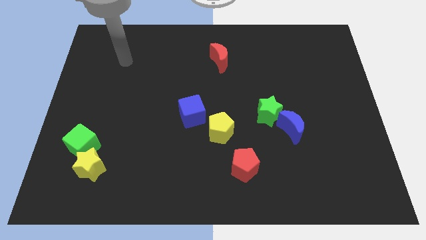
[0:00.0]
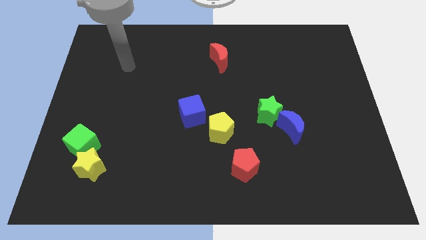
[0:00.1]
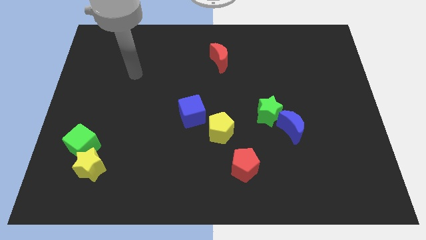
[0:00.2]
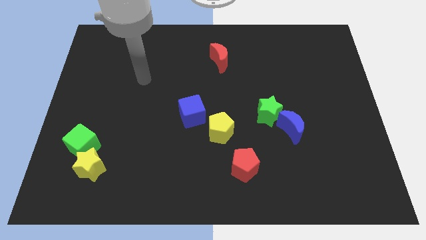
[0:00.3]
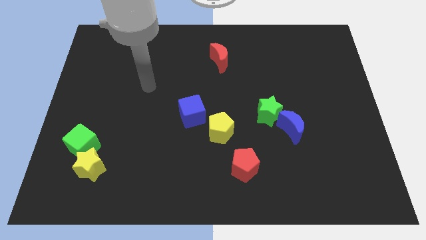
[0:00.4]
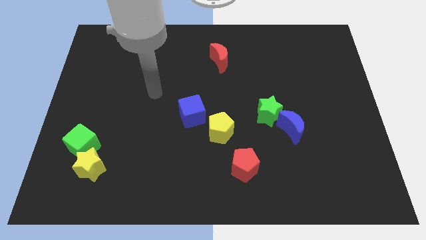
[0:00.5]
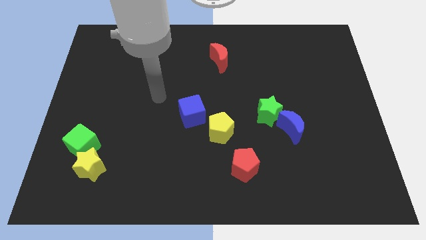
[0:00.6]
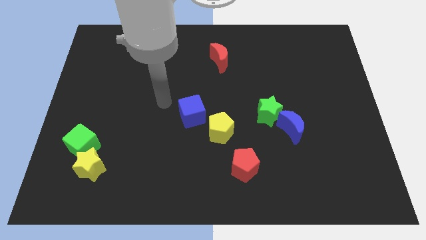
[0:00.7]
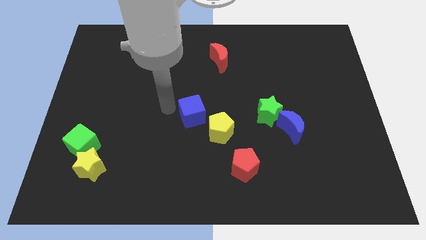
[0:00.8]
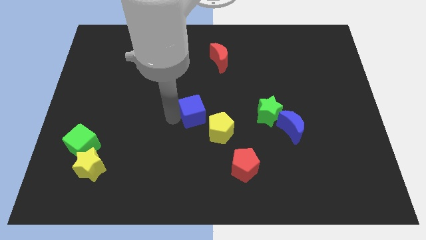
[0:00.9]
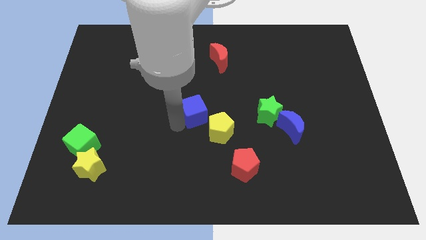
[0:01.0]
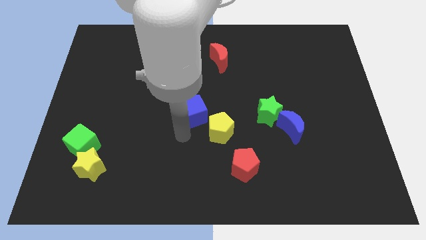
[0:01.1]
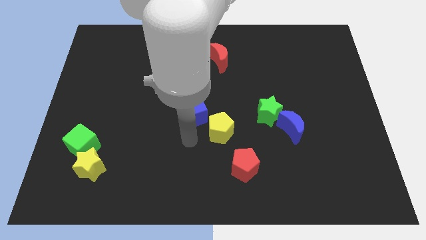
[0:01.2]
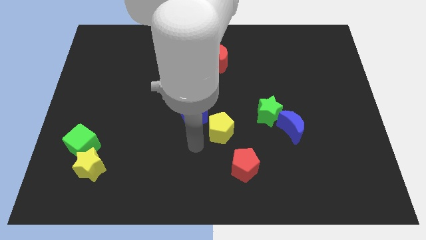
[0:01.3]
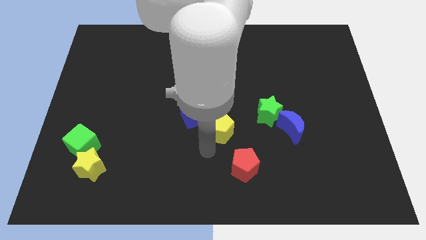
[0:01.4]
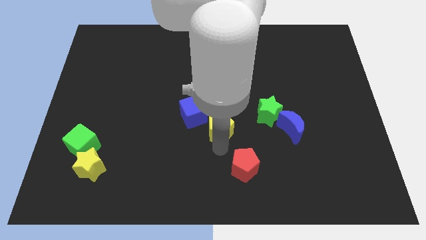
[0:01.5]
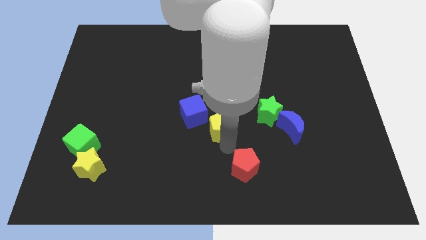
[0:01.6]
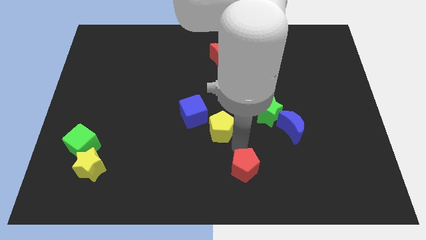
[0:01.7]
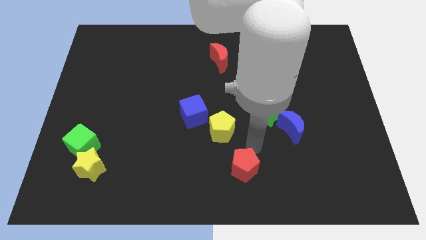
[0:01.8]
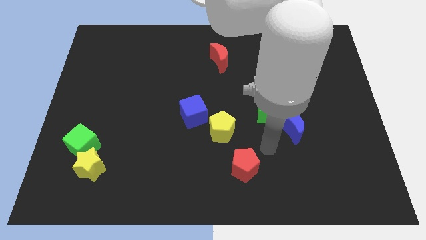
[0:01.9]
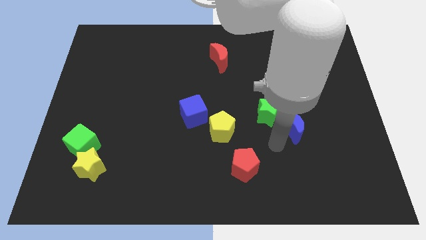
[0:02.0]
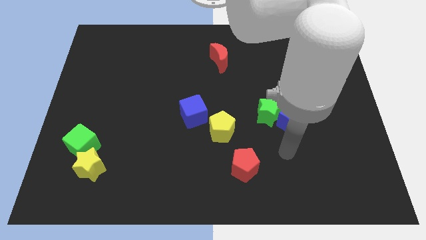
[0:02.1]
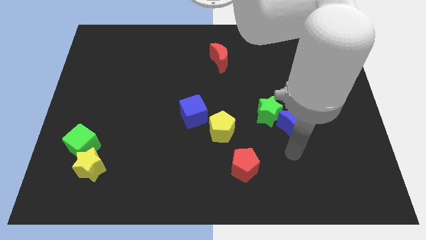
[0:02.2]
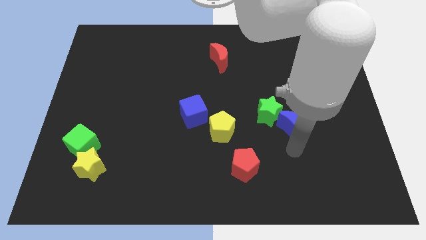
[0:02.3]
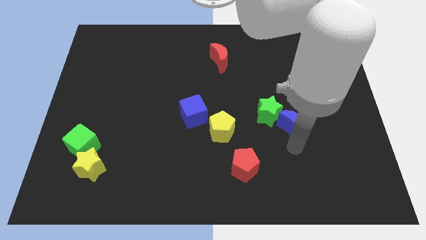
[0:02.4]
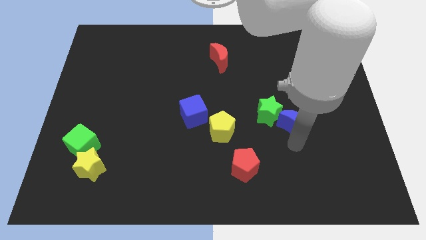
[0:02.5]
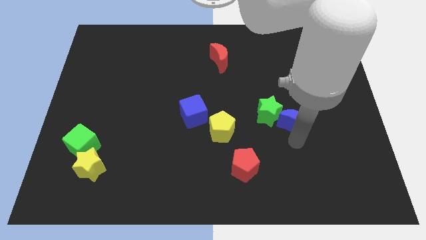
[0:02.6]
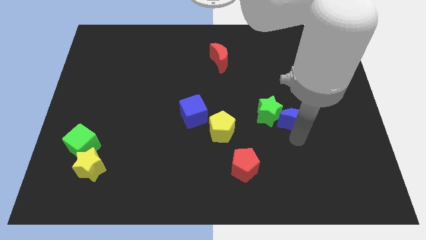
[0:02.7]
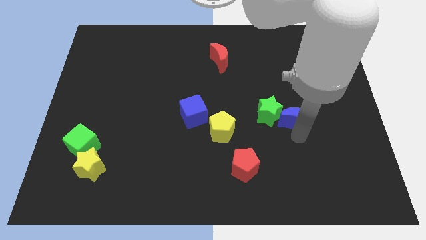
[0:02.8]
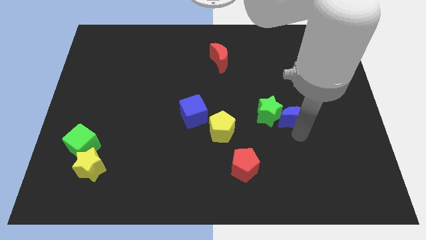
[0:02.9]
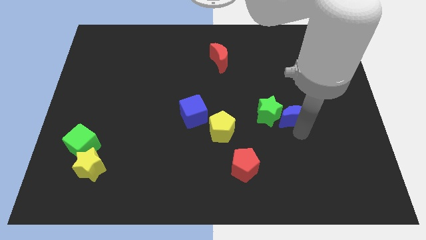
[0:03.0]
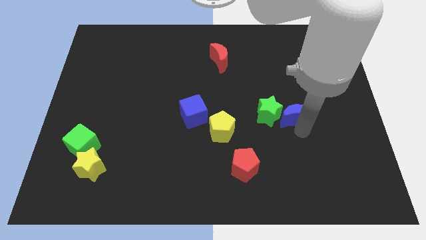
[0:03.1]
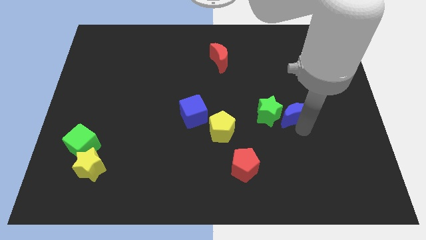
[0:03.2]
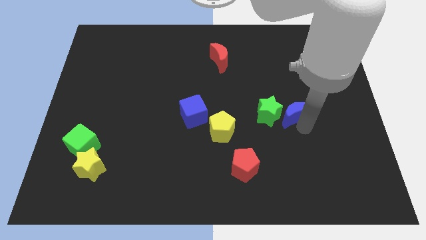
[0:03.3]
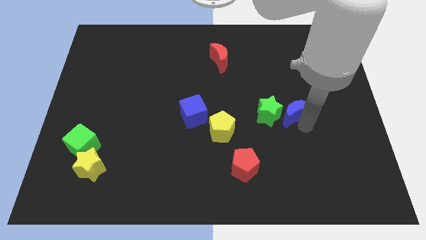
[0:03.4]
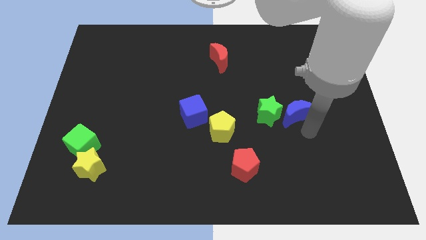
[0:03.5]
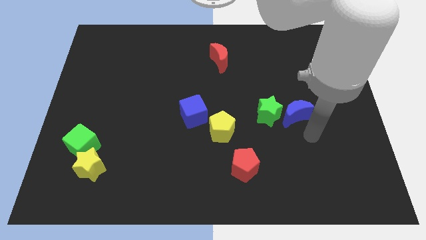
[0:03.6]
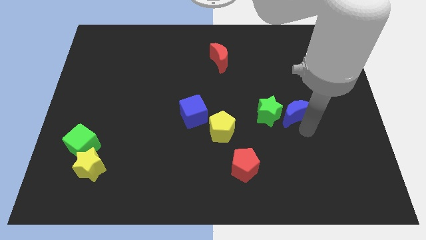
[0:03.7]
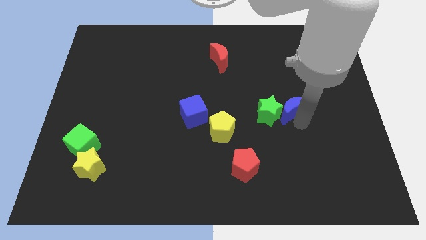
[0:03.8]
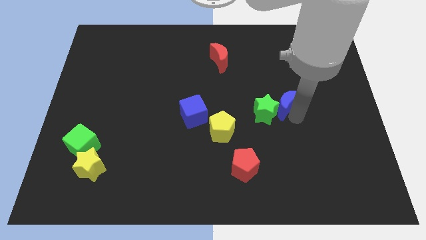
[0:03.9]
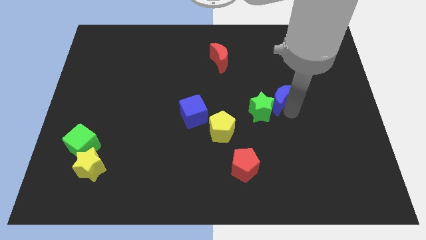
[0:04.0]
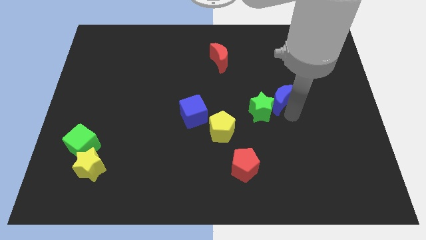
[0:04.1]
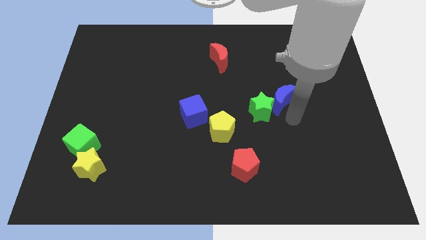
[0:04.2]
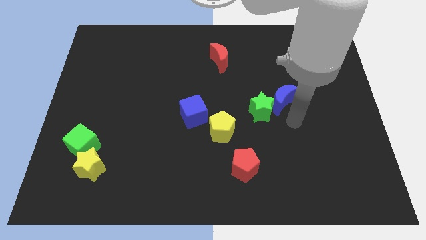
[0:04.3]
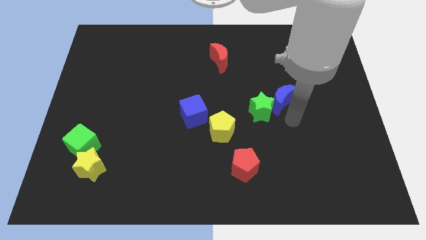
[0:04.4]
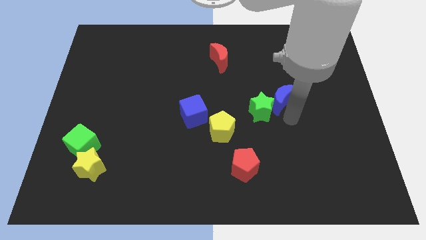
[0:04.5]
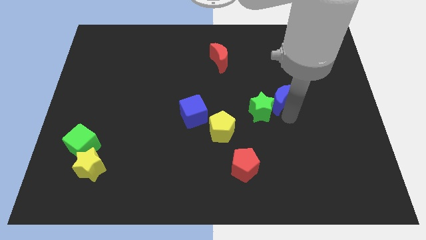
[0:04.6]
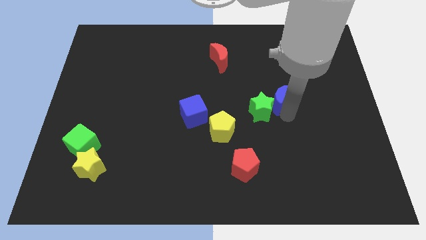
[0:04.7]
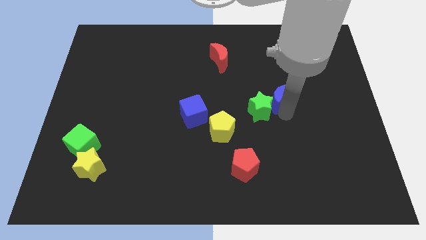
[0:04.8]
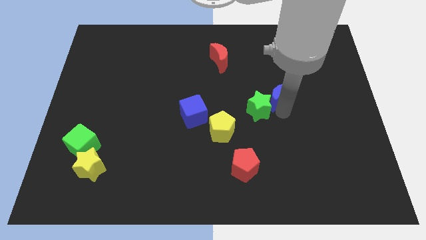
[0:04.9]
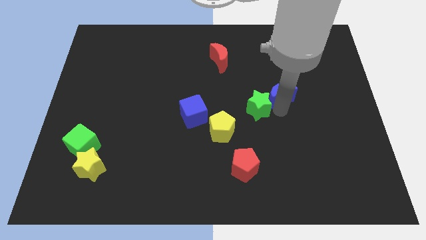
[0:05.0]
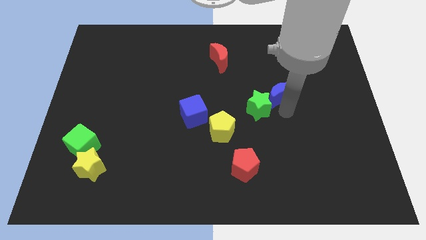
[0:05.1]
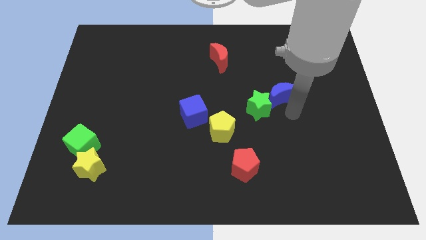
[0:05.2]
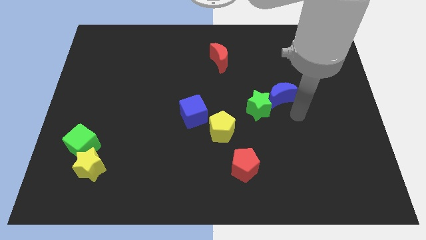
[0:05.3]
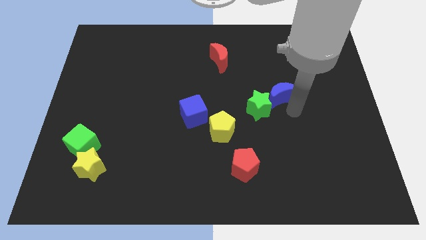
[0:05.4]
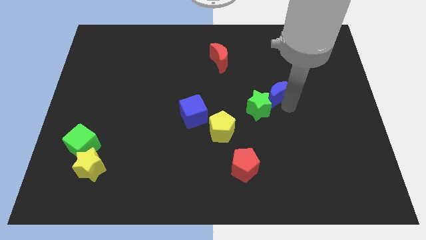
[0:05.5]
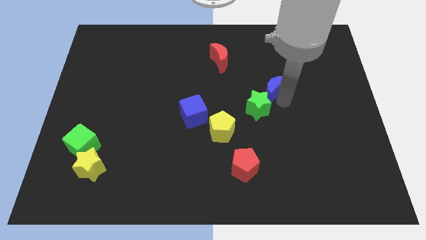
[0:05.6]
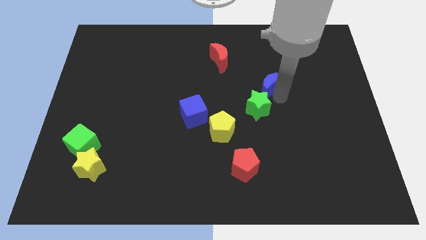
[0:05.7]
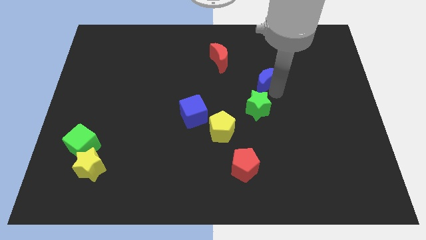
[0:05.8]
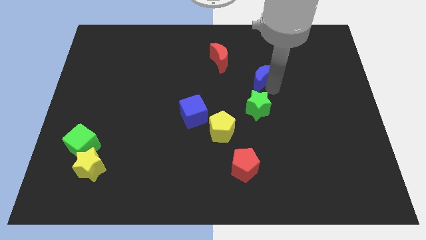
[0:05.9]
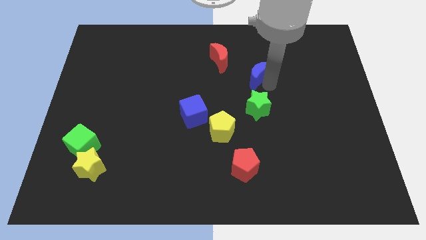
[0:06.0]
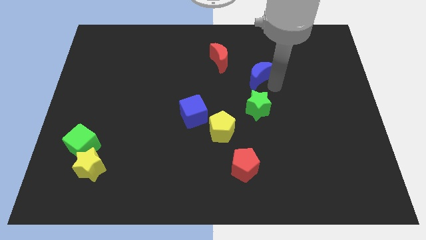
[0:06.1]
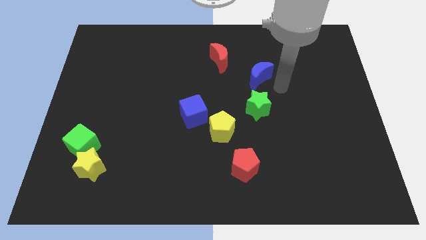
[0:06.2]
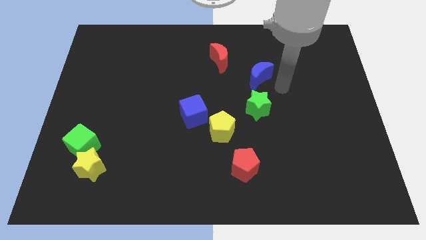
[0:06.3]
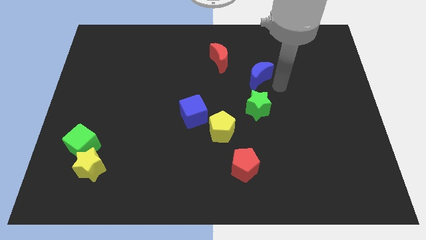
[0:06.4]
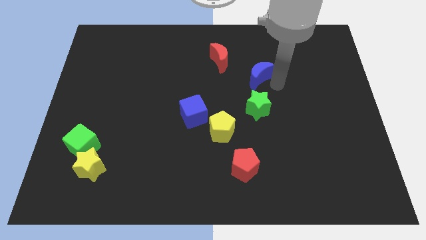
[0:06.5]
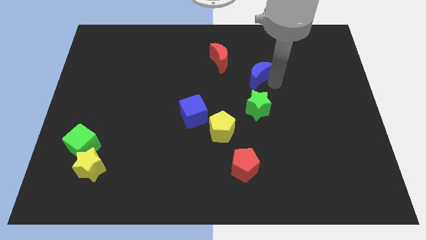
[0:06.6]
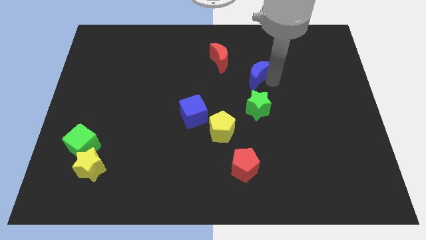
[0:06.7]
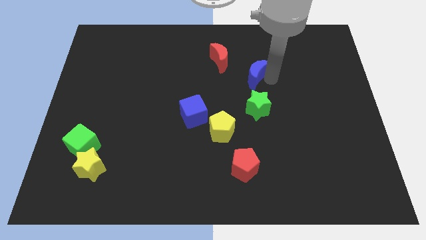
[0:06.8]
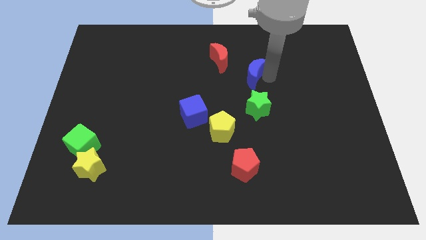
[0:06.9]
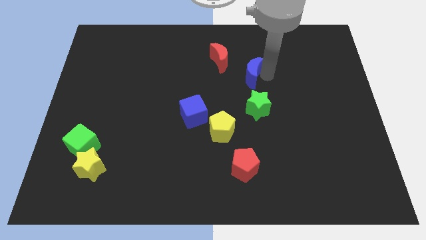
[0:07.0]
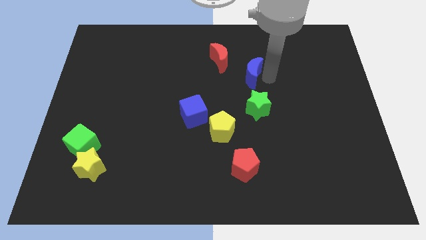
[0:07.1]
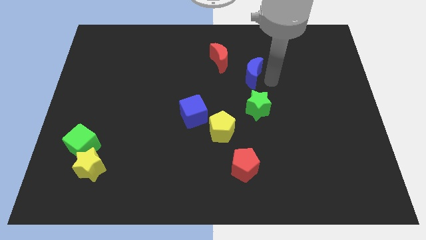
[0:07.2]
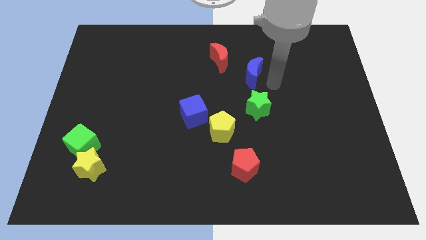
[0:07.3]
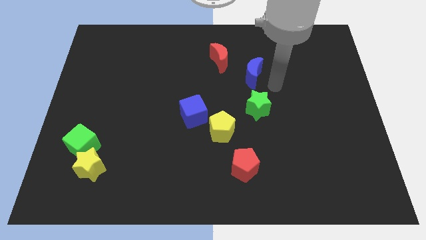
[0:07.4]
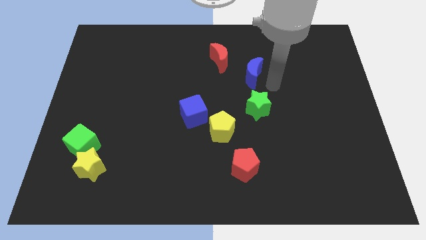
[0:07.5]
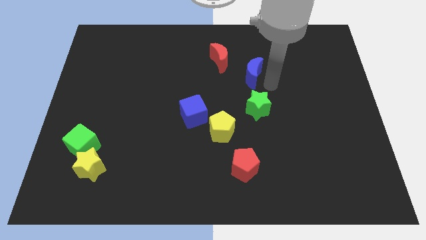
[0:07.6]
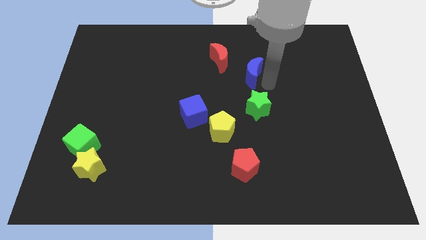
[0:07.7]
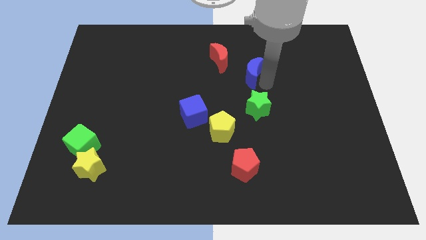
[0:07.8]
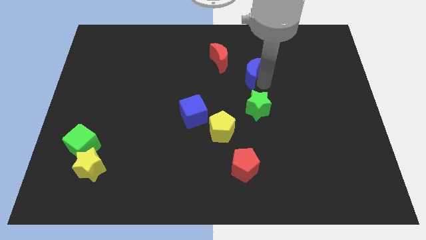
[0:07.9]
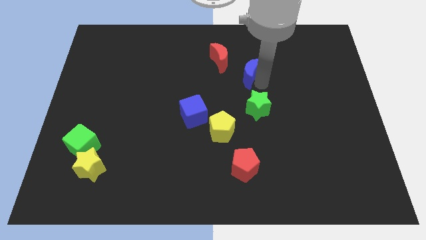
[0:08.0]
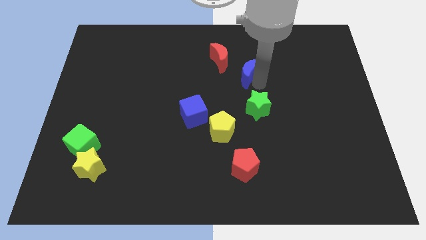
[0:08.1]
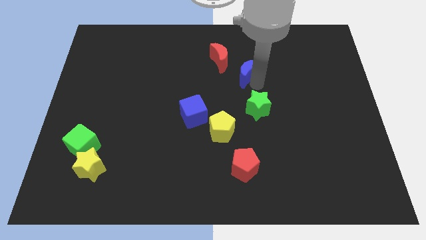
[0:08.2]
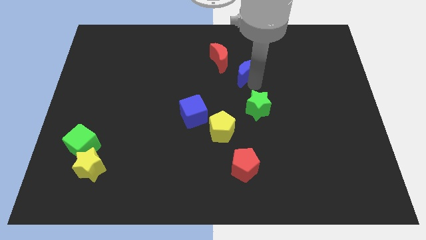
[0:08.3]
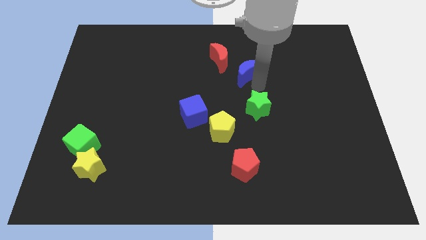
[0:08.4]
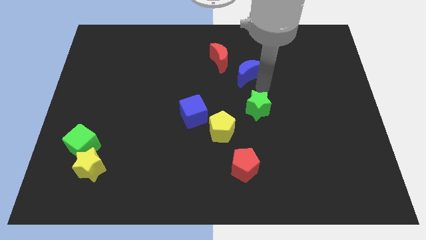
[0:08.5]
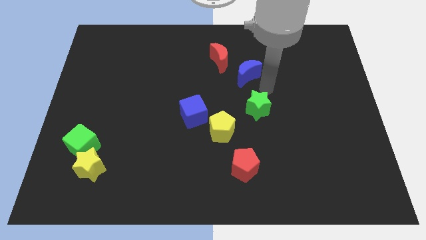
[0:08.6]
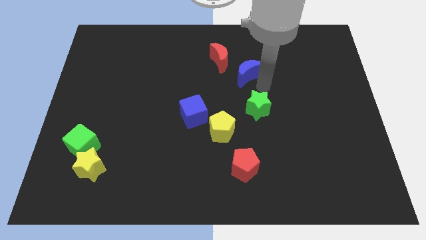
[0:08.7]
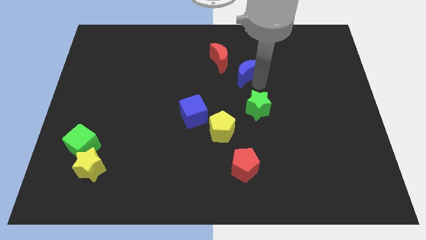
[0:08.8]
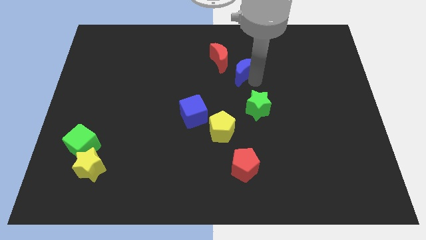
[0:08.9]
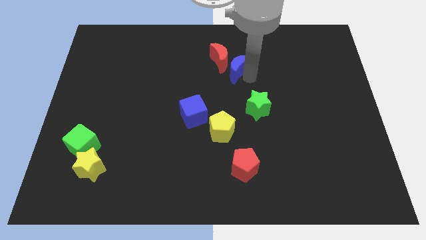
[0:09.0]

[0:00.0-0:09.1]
push the blue moon towards the red moon
